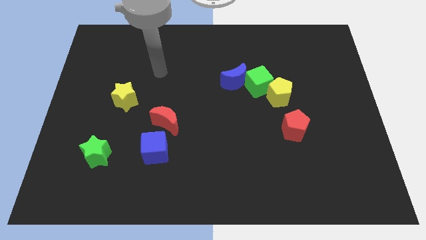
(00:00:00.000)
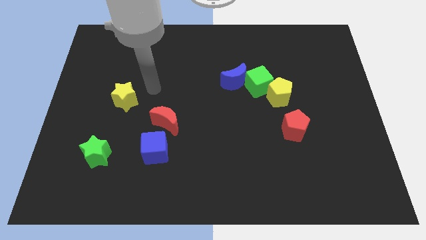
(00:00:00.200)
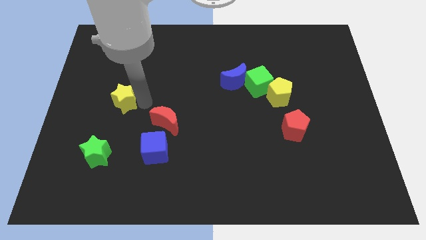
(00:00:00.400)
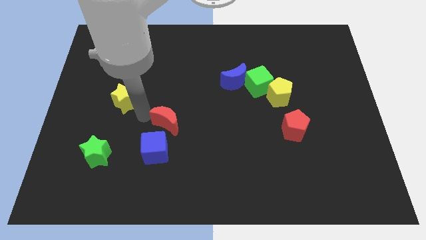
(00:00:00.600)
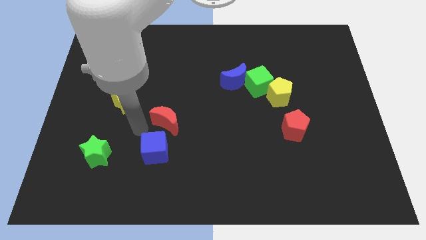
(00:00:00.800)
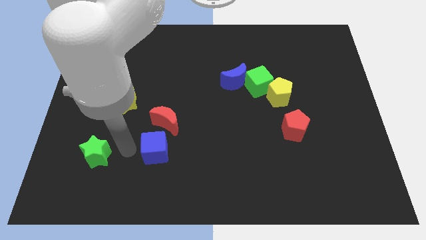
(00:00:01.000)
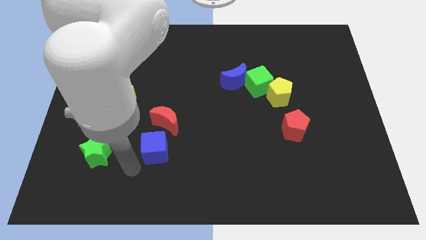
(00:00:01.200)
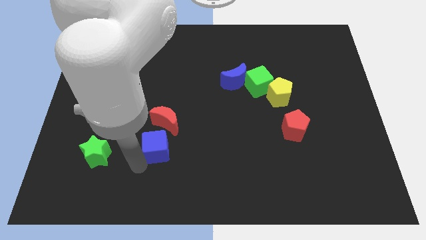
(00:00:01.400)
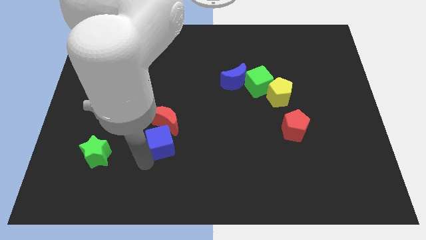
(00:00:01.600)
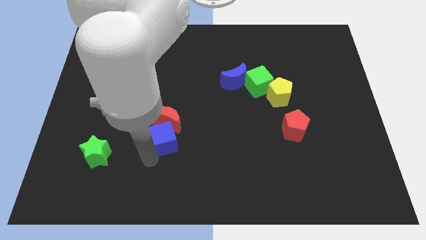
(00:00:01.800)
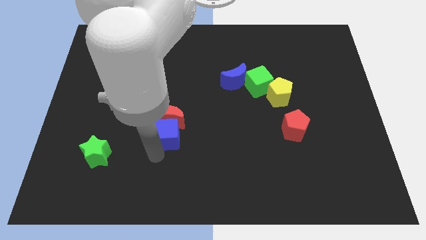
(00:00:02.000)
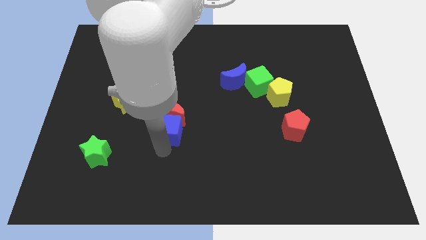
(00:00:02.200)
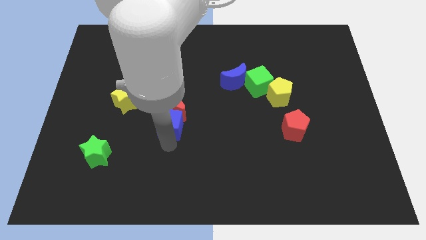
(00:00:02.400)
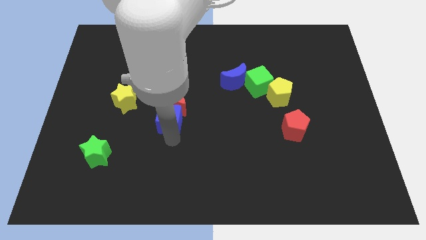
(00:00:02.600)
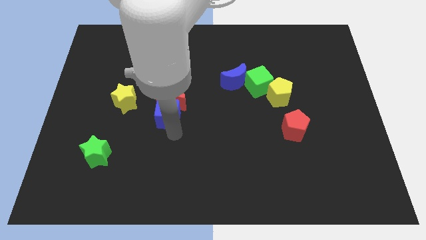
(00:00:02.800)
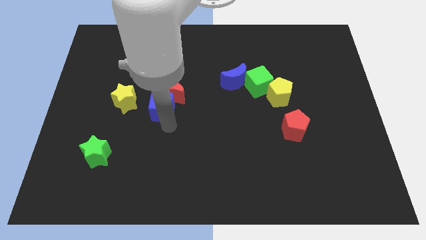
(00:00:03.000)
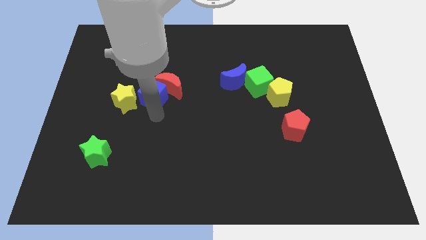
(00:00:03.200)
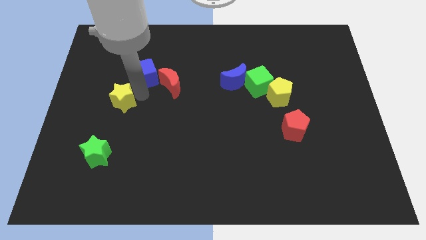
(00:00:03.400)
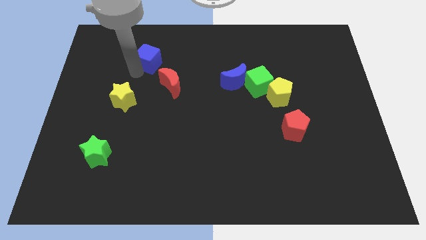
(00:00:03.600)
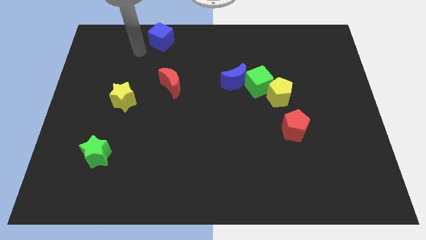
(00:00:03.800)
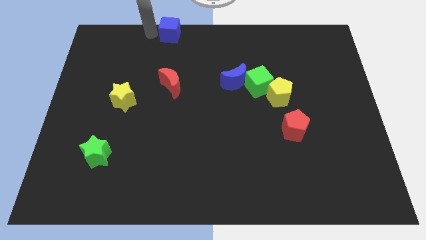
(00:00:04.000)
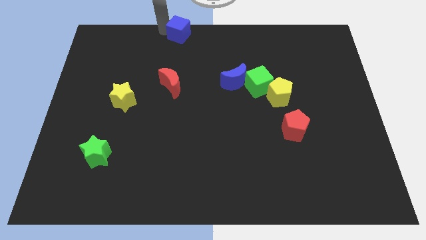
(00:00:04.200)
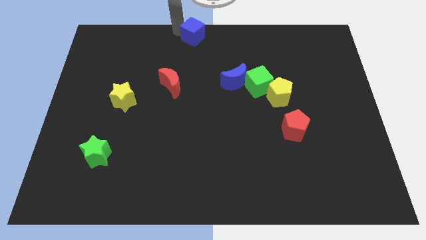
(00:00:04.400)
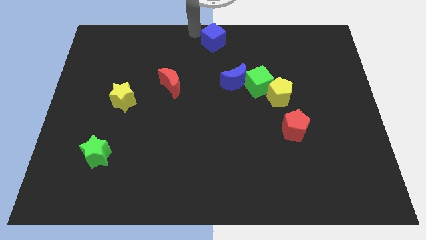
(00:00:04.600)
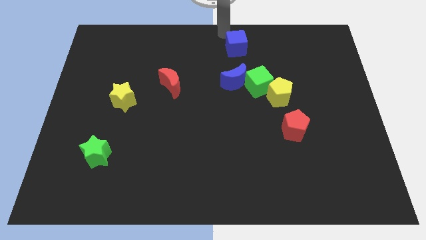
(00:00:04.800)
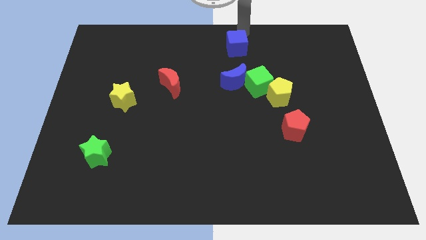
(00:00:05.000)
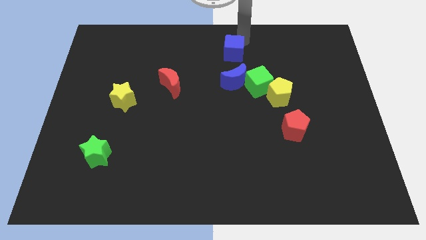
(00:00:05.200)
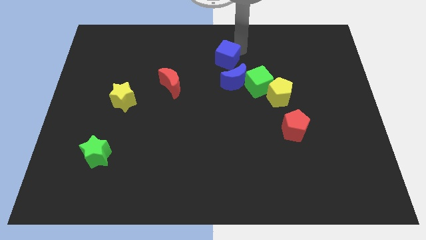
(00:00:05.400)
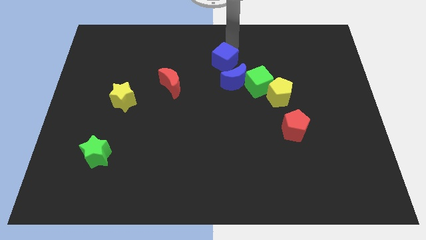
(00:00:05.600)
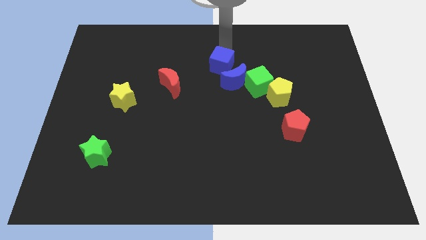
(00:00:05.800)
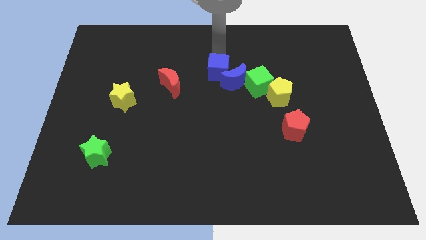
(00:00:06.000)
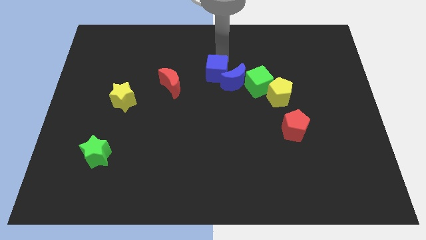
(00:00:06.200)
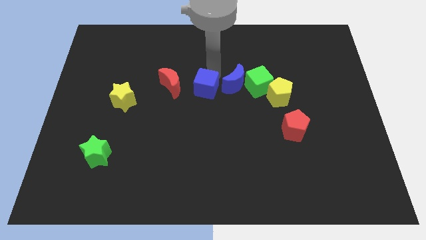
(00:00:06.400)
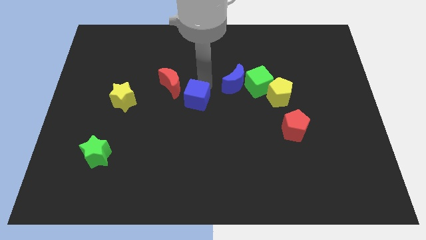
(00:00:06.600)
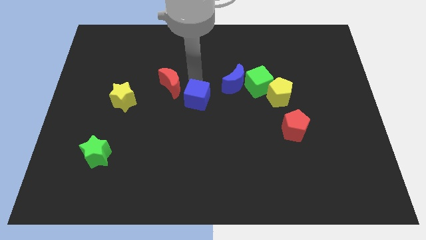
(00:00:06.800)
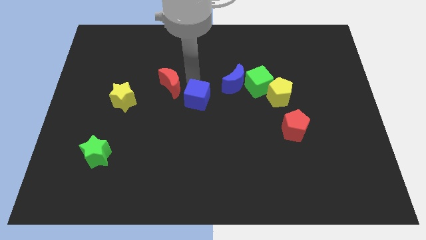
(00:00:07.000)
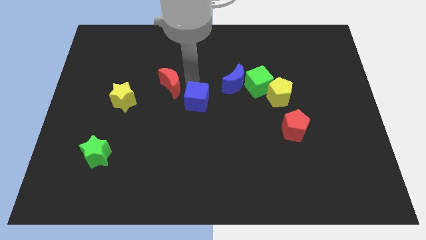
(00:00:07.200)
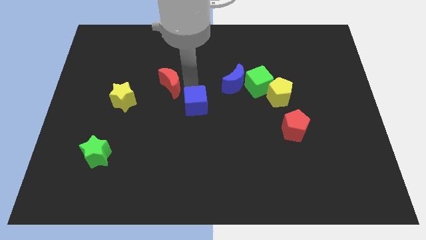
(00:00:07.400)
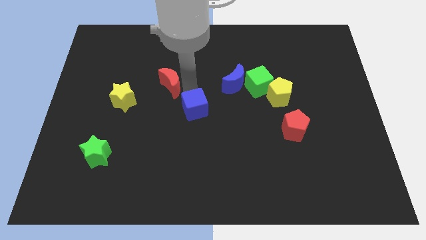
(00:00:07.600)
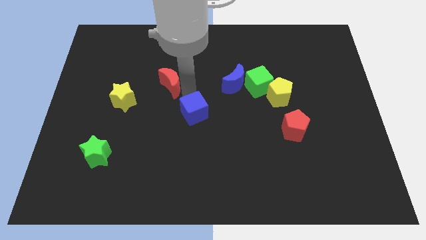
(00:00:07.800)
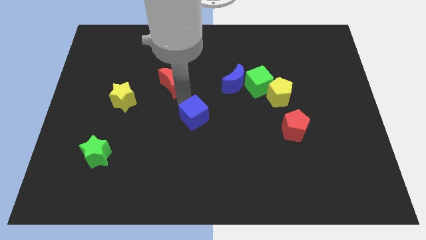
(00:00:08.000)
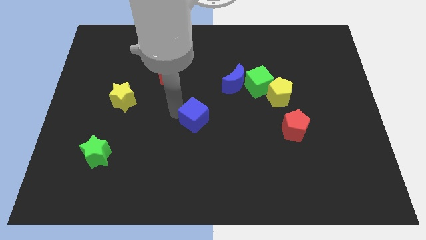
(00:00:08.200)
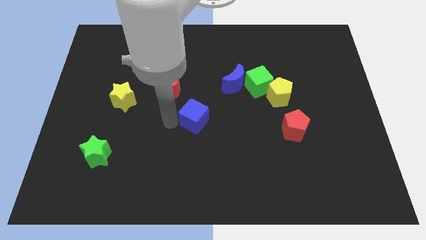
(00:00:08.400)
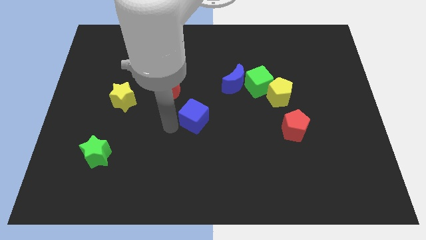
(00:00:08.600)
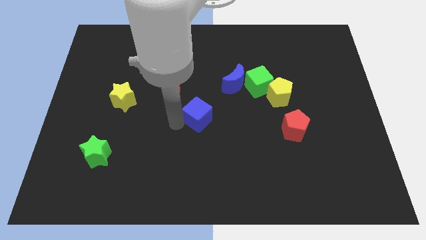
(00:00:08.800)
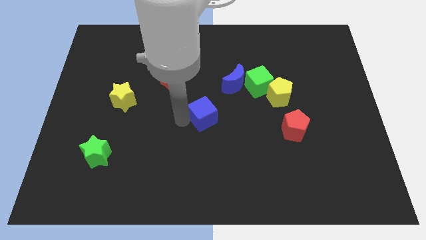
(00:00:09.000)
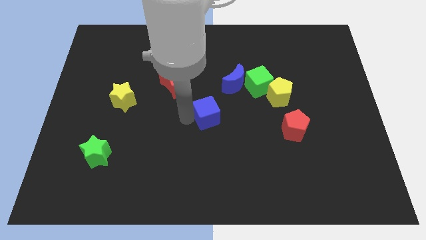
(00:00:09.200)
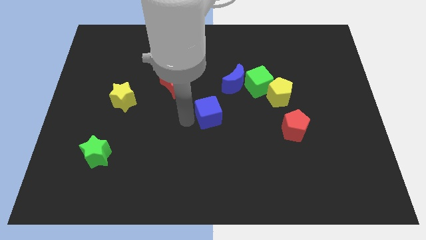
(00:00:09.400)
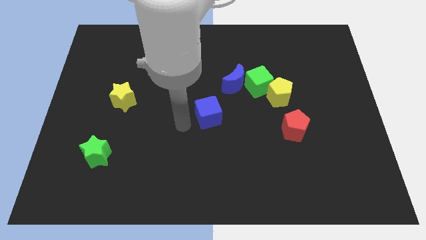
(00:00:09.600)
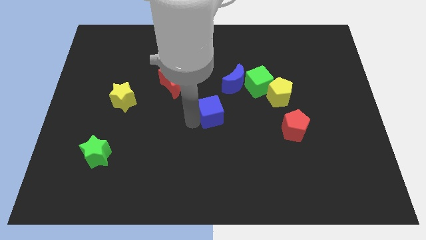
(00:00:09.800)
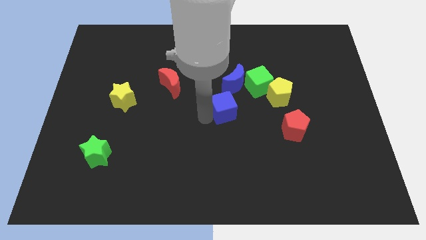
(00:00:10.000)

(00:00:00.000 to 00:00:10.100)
put the blue cube diagonally down and to the left of the green cube

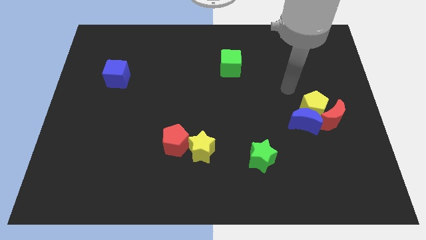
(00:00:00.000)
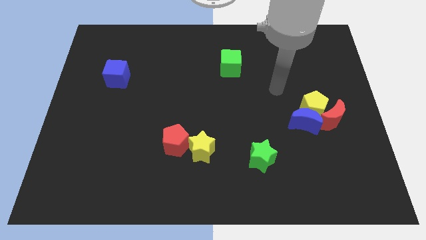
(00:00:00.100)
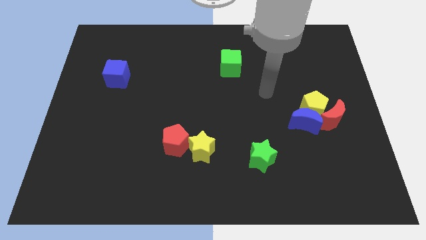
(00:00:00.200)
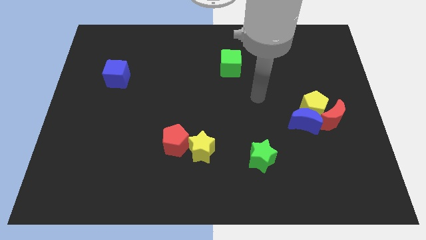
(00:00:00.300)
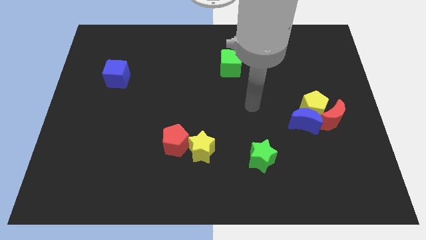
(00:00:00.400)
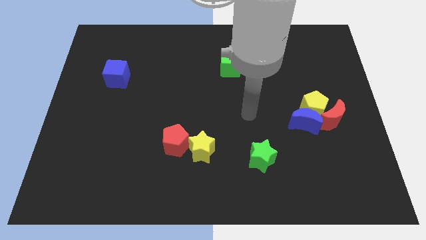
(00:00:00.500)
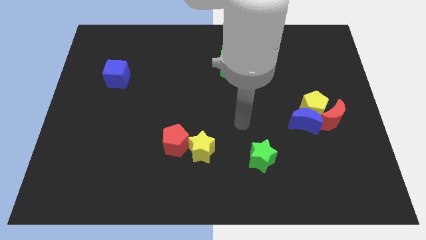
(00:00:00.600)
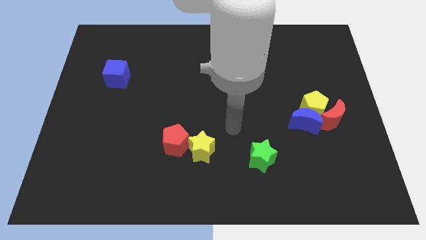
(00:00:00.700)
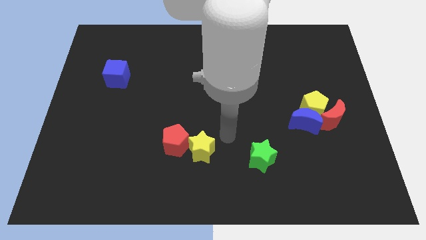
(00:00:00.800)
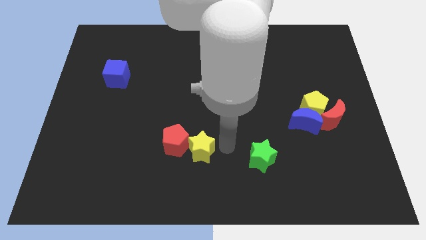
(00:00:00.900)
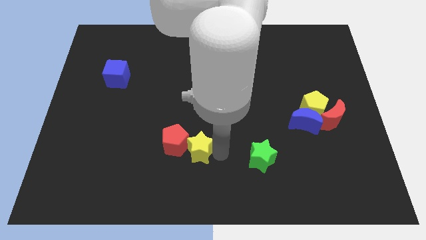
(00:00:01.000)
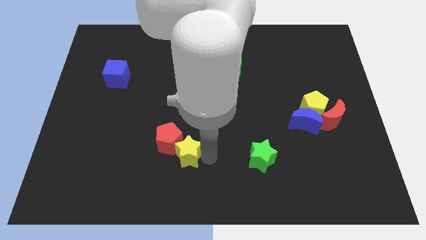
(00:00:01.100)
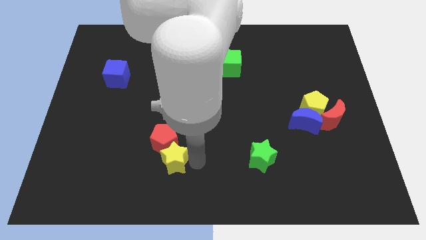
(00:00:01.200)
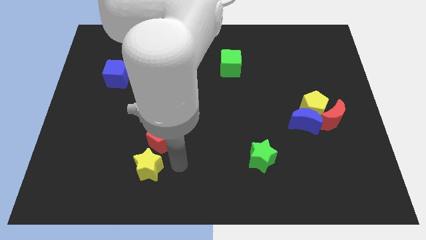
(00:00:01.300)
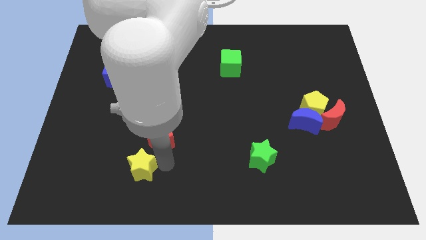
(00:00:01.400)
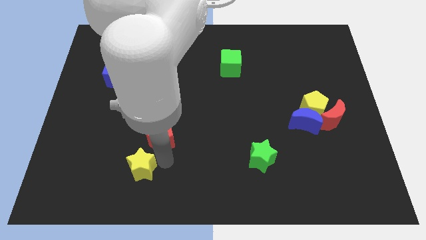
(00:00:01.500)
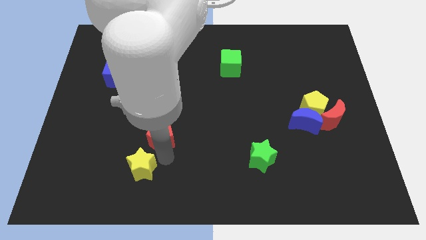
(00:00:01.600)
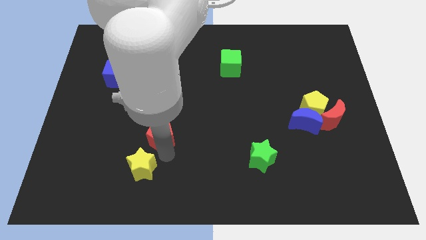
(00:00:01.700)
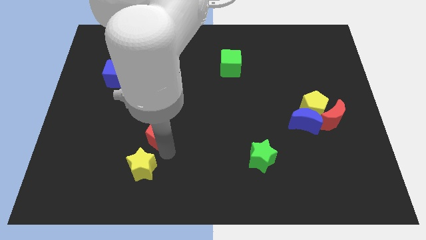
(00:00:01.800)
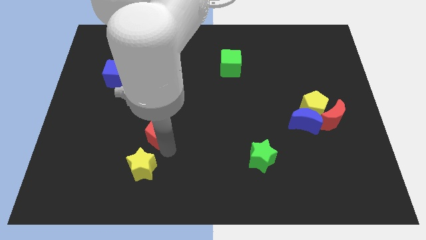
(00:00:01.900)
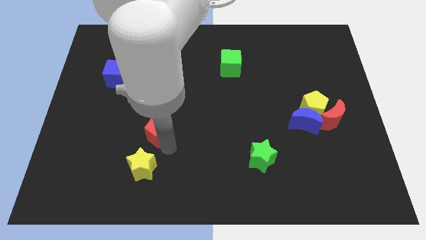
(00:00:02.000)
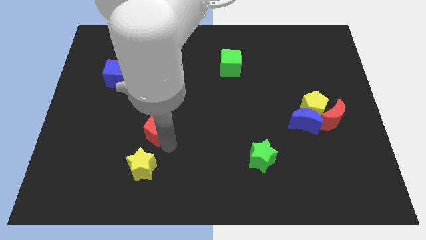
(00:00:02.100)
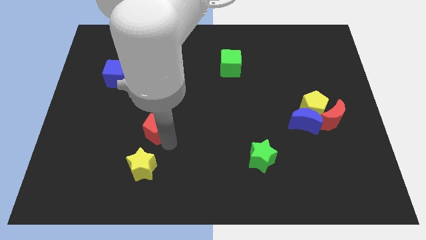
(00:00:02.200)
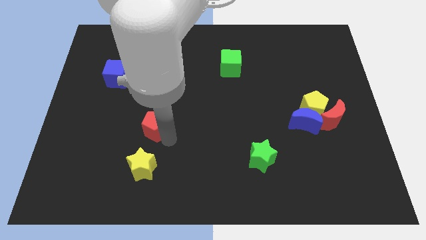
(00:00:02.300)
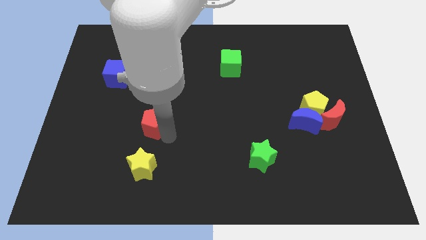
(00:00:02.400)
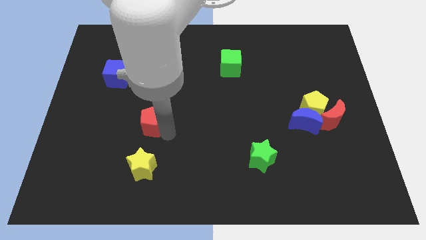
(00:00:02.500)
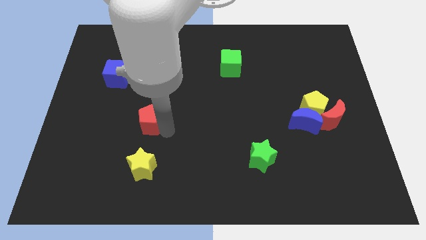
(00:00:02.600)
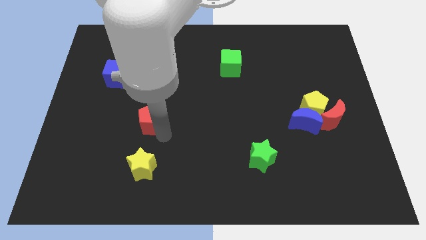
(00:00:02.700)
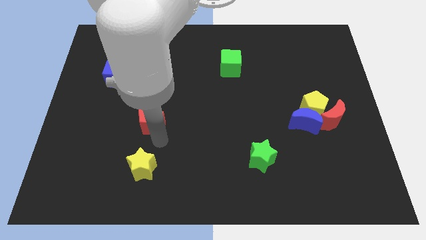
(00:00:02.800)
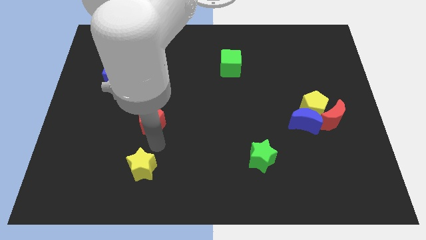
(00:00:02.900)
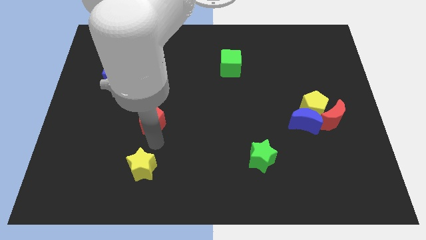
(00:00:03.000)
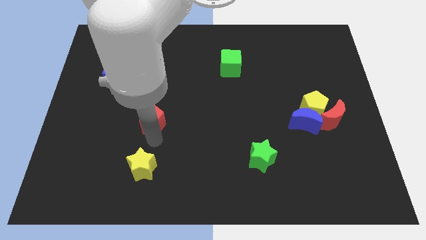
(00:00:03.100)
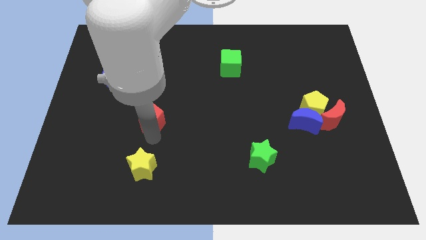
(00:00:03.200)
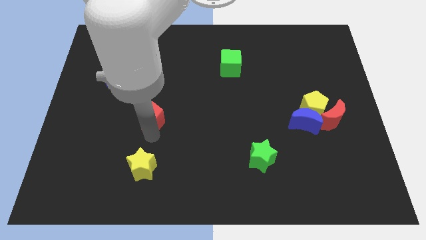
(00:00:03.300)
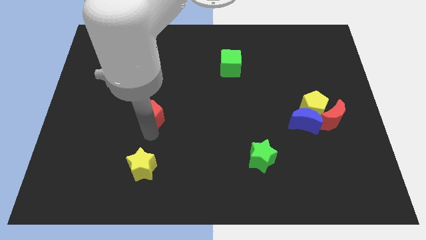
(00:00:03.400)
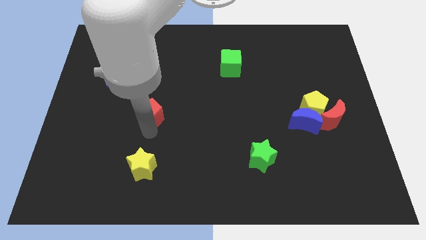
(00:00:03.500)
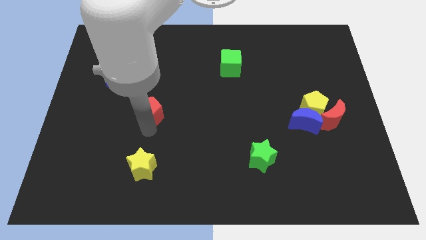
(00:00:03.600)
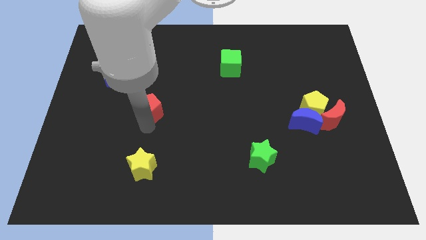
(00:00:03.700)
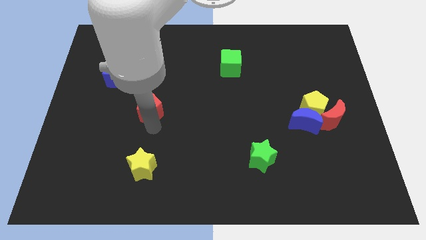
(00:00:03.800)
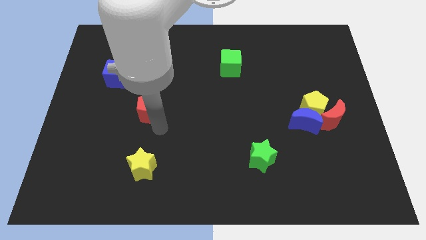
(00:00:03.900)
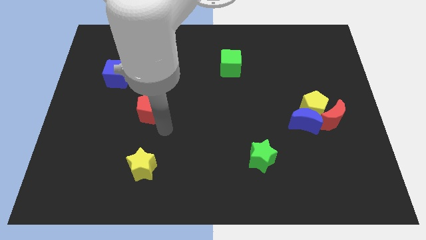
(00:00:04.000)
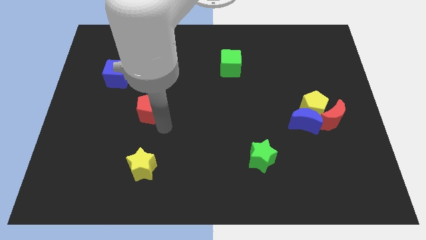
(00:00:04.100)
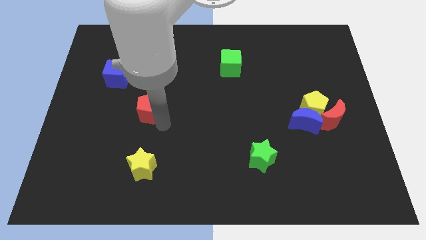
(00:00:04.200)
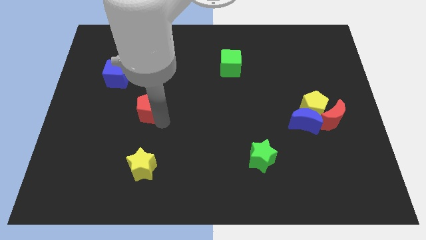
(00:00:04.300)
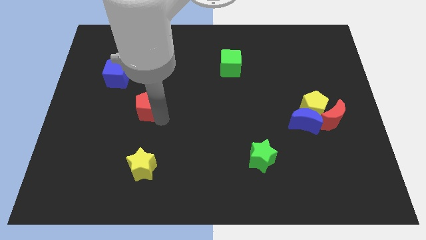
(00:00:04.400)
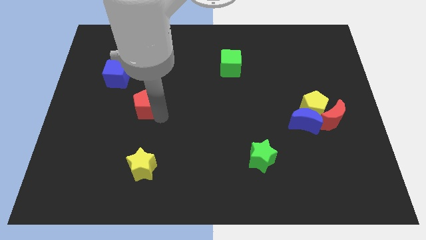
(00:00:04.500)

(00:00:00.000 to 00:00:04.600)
slide the red pentagon diagonally down and to the right of the blue cube
